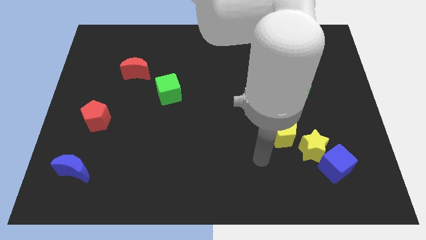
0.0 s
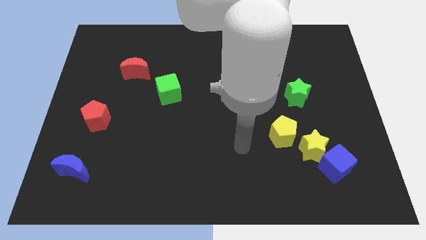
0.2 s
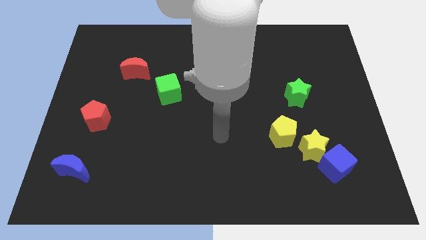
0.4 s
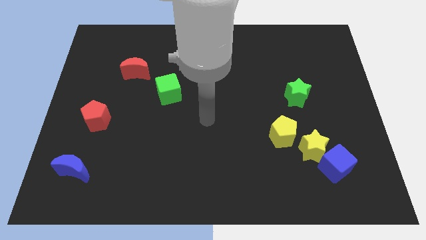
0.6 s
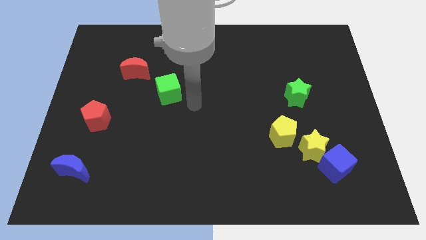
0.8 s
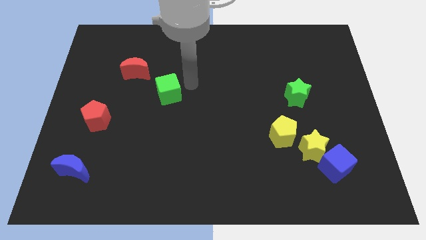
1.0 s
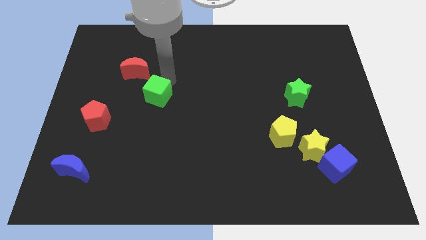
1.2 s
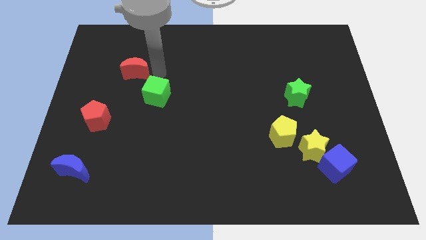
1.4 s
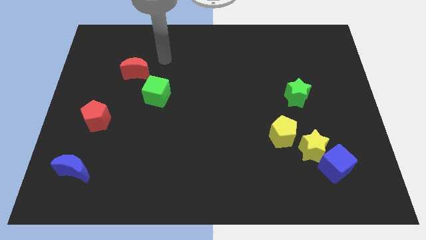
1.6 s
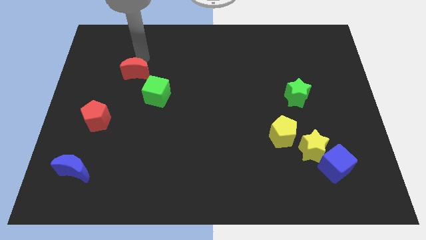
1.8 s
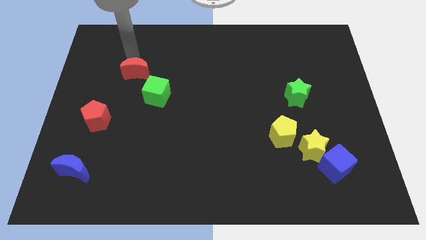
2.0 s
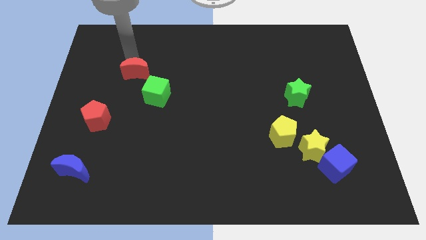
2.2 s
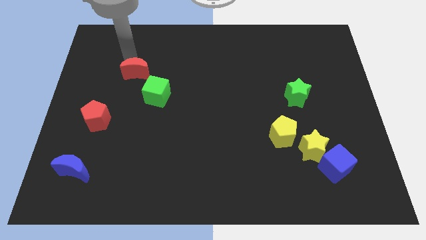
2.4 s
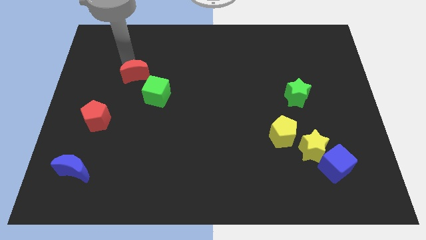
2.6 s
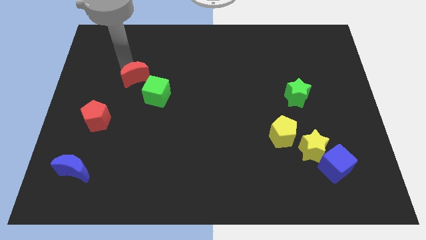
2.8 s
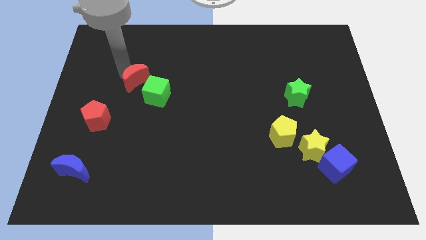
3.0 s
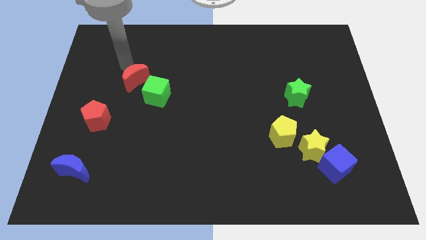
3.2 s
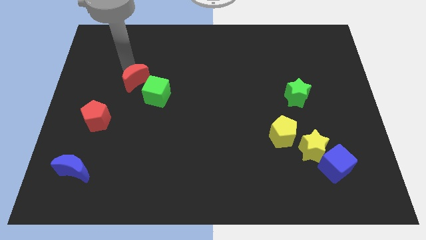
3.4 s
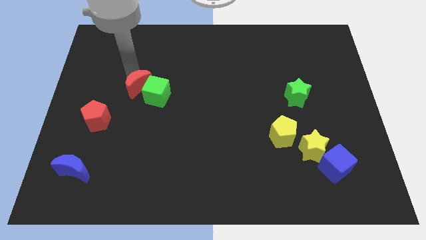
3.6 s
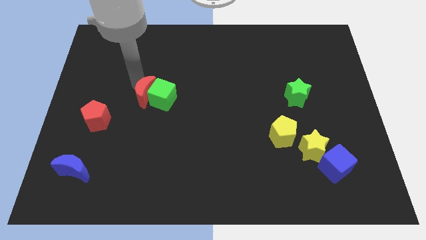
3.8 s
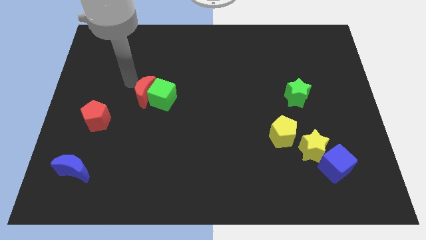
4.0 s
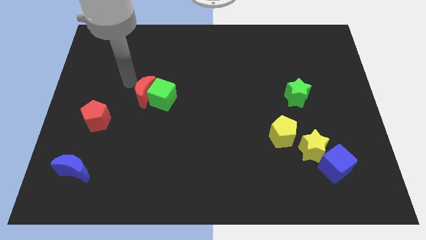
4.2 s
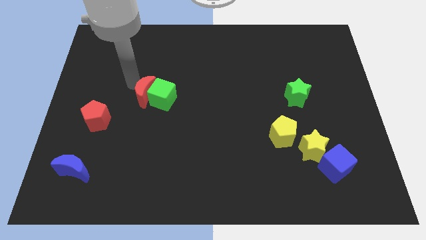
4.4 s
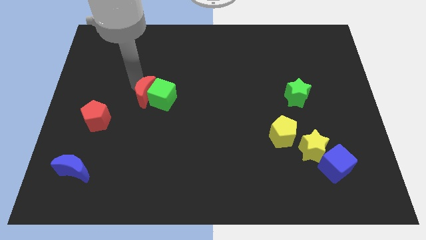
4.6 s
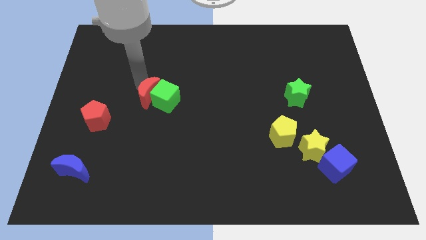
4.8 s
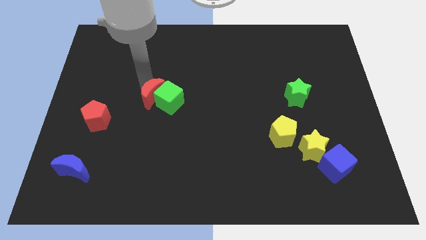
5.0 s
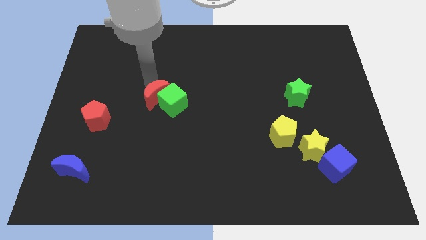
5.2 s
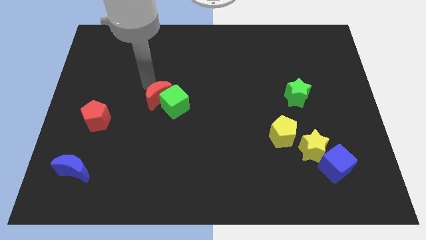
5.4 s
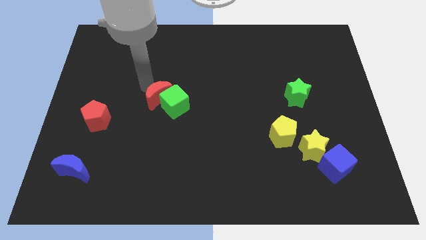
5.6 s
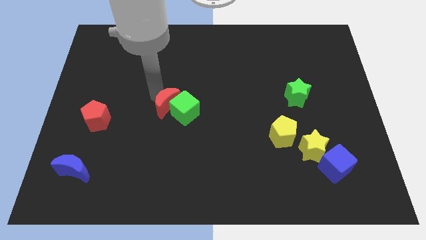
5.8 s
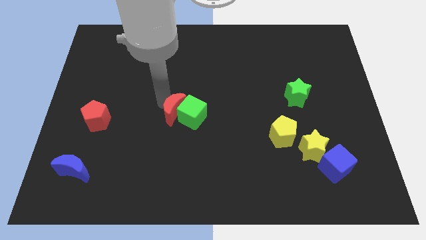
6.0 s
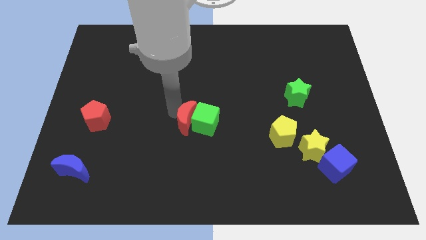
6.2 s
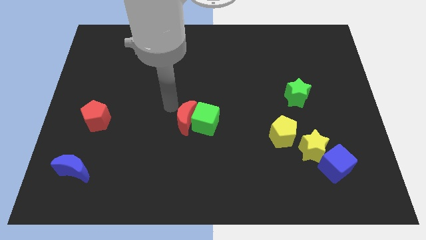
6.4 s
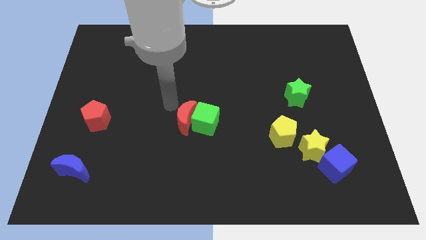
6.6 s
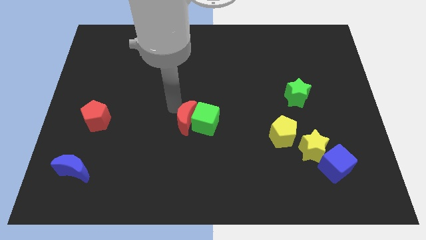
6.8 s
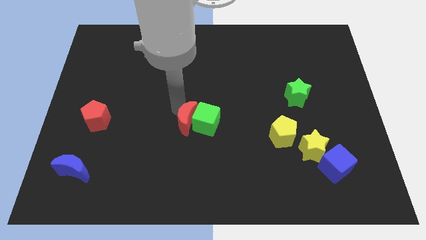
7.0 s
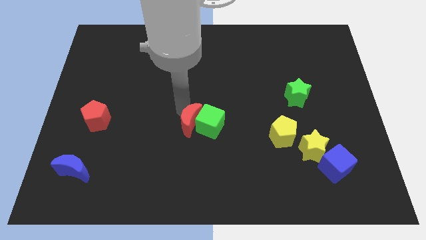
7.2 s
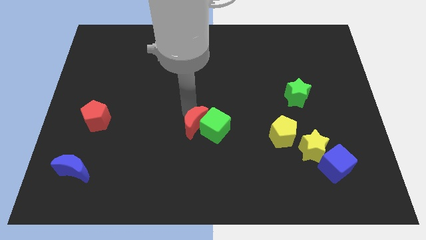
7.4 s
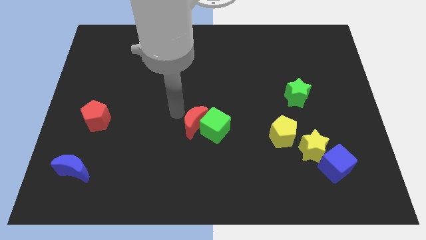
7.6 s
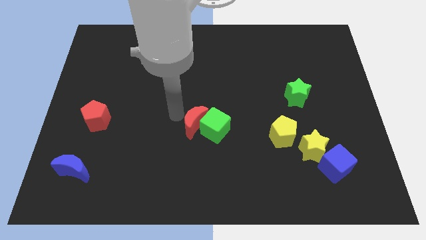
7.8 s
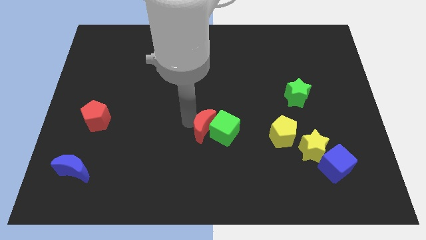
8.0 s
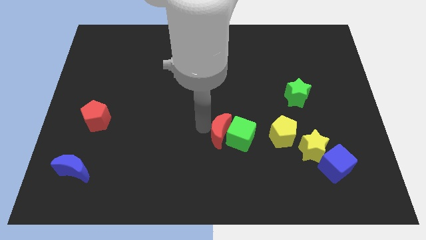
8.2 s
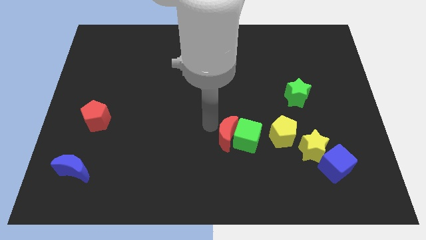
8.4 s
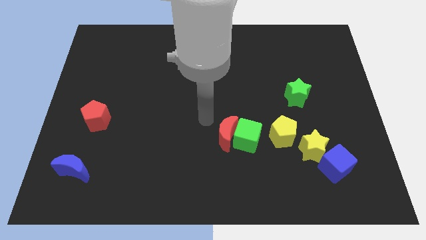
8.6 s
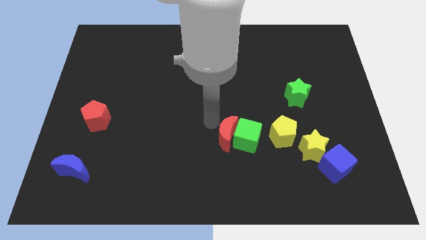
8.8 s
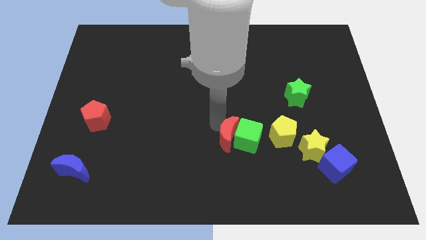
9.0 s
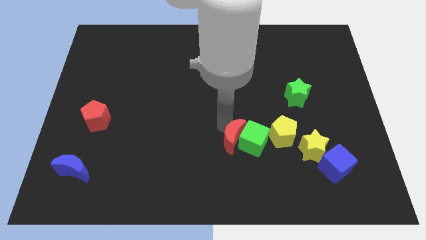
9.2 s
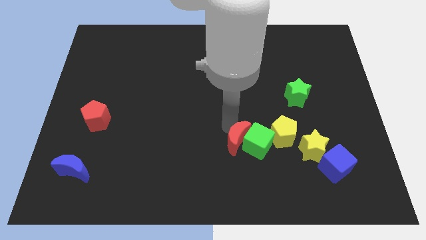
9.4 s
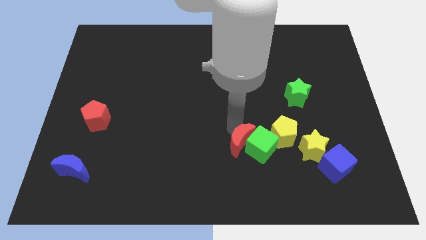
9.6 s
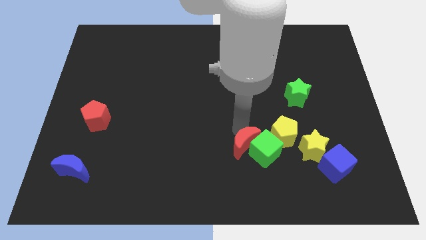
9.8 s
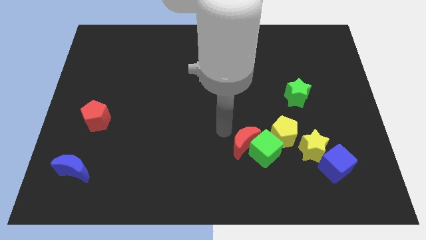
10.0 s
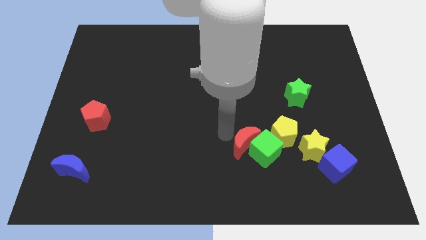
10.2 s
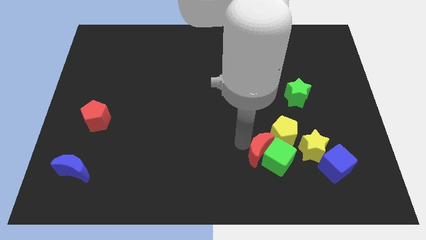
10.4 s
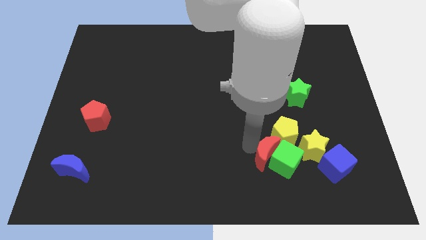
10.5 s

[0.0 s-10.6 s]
move the red moon just left of the blue cube

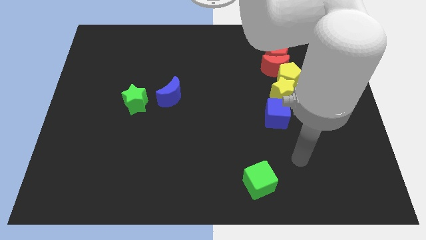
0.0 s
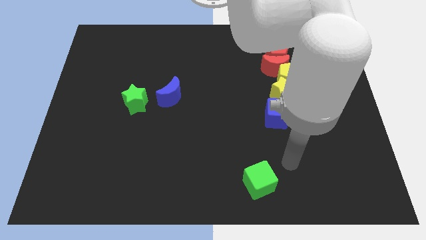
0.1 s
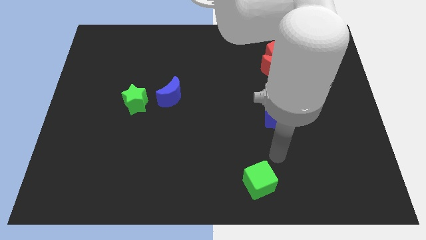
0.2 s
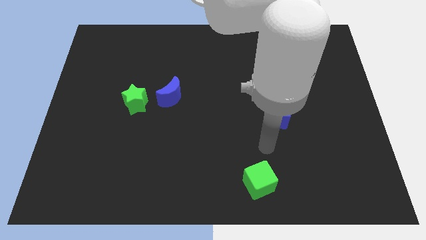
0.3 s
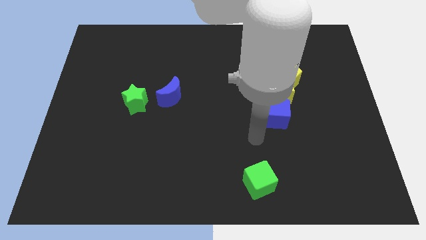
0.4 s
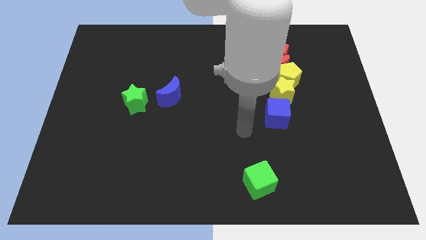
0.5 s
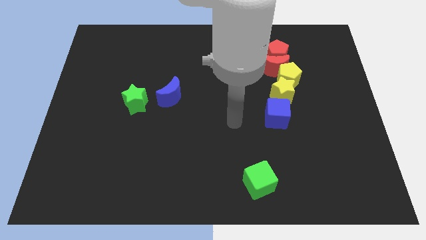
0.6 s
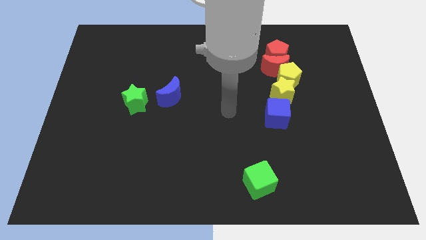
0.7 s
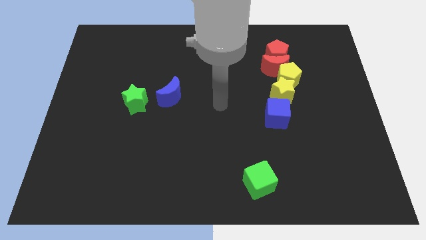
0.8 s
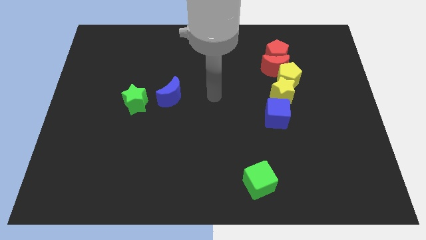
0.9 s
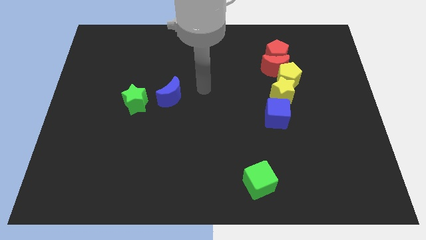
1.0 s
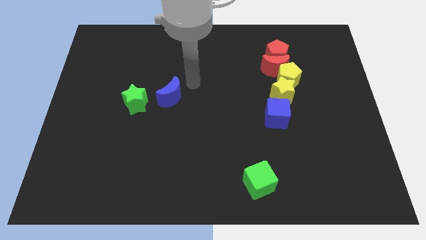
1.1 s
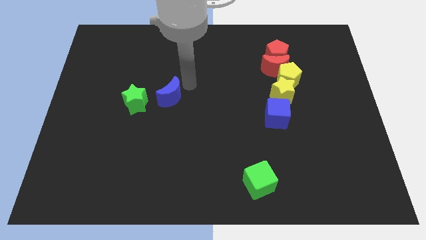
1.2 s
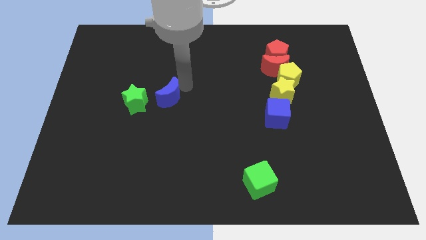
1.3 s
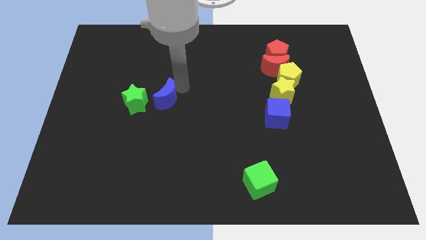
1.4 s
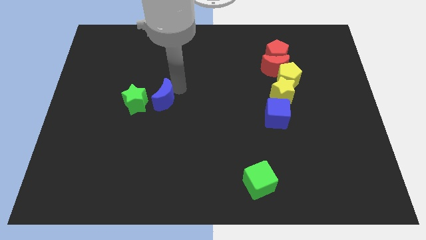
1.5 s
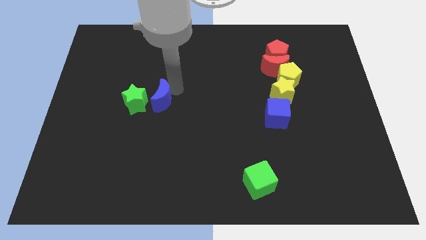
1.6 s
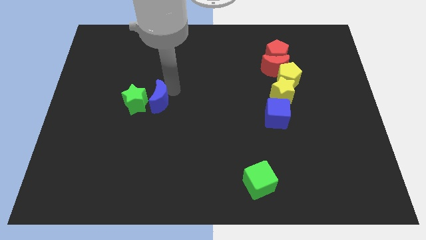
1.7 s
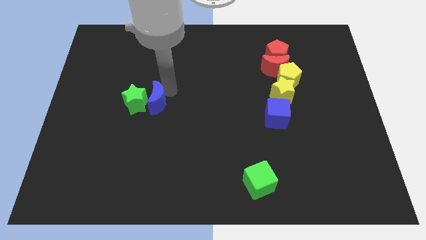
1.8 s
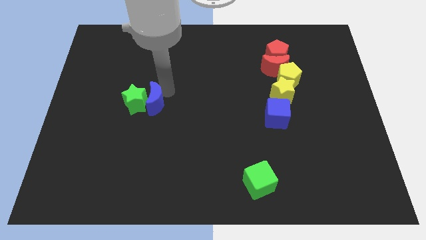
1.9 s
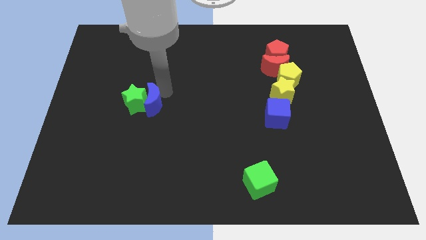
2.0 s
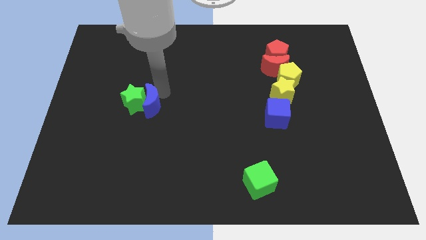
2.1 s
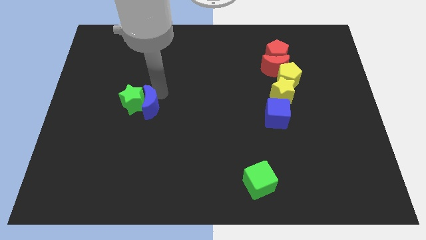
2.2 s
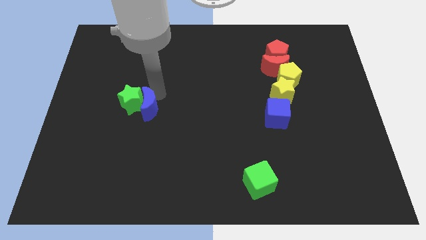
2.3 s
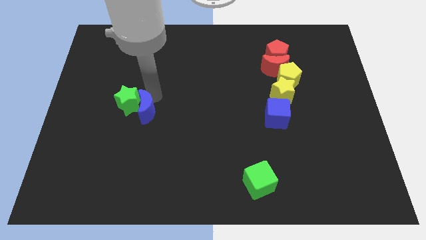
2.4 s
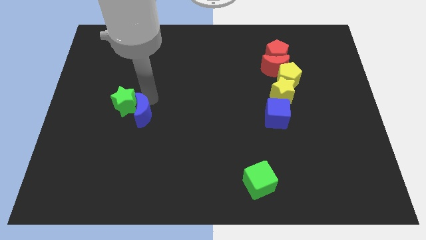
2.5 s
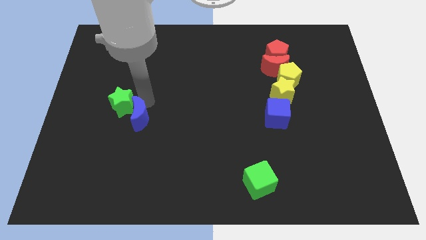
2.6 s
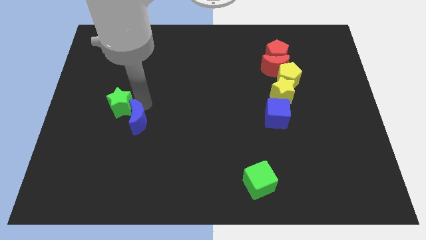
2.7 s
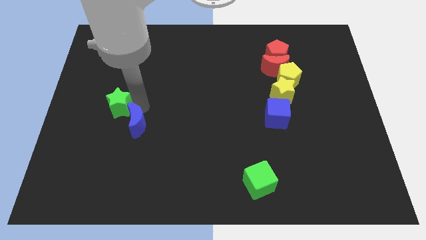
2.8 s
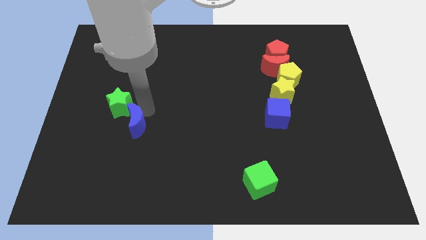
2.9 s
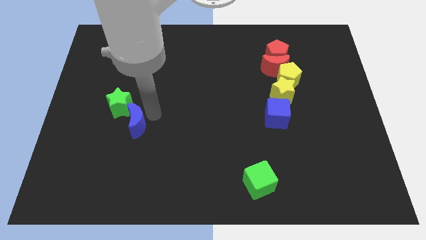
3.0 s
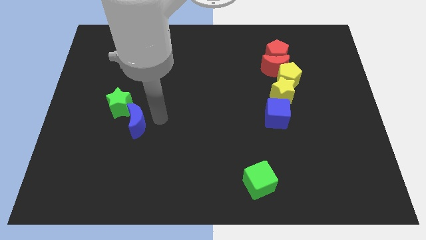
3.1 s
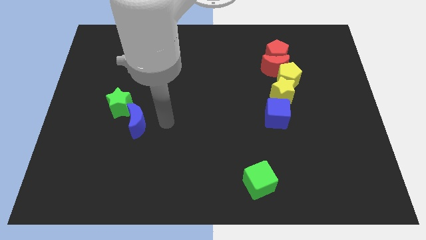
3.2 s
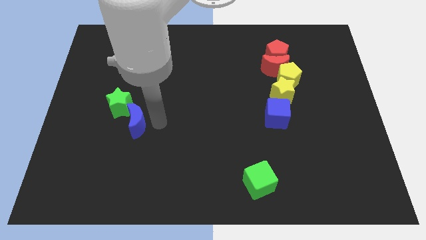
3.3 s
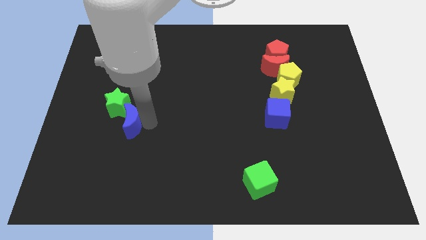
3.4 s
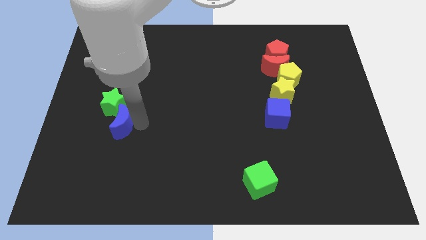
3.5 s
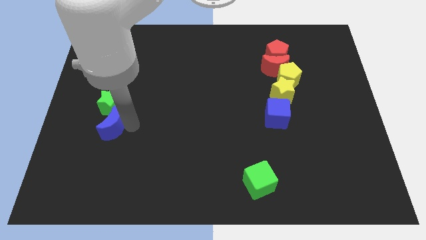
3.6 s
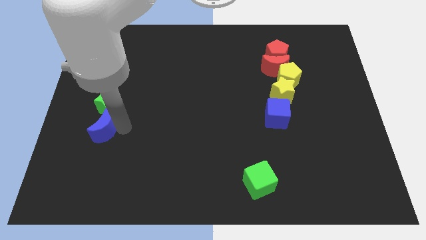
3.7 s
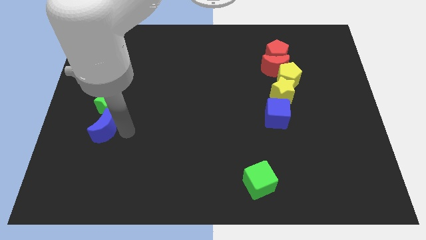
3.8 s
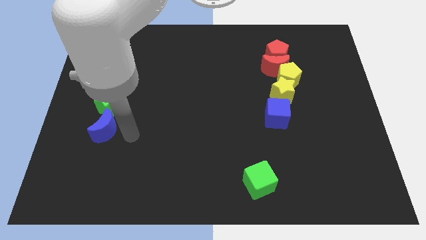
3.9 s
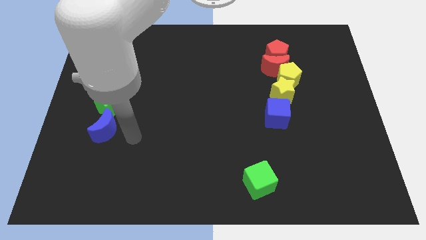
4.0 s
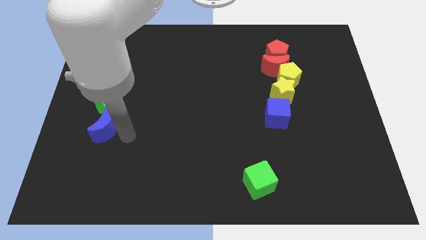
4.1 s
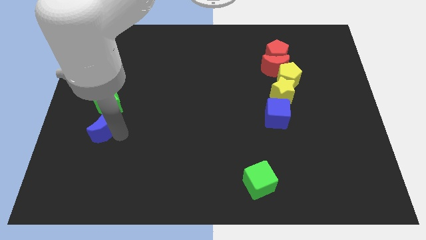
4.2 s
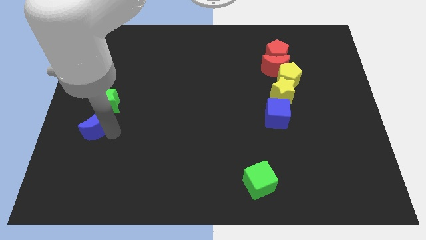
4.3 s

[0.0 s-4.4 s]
push the blue moon to the bottom left side of the green star
